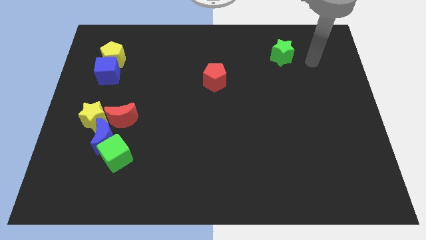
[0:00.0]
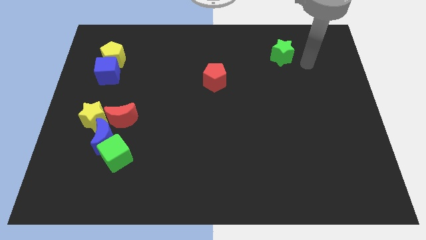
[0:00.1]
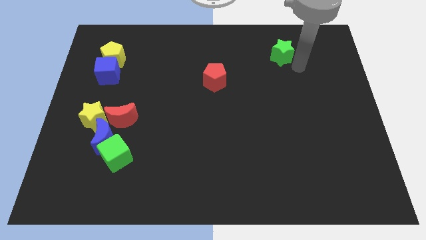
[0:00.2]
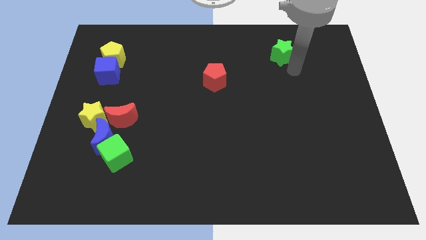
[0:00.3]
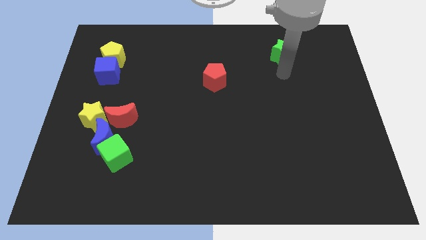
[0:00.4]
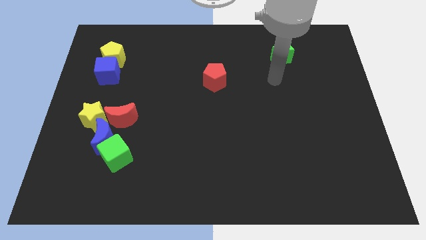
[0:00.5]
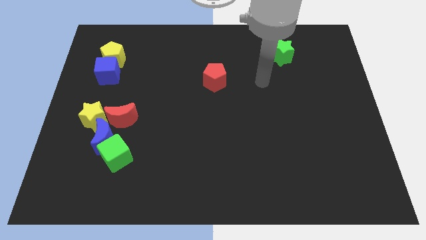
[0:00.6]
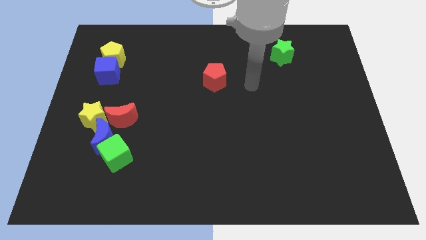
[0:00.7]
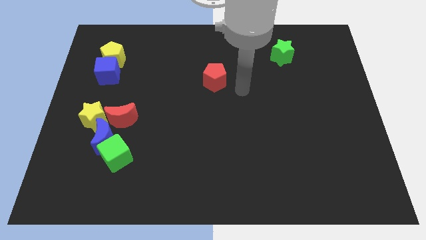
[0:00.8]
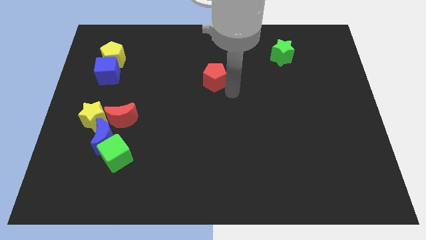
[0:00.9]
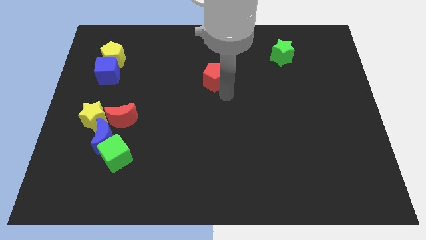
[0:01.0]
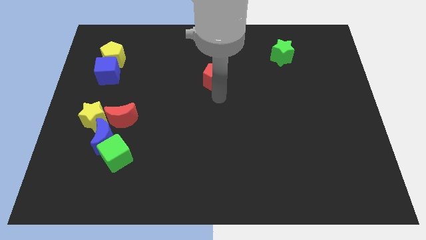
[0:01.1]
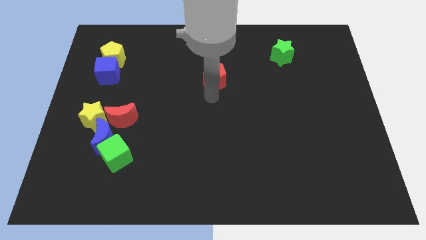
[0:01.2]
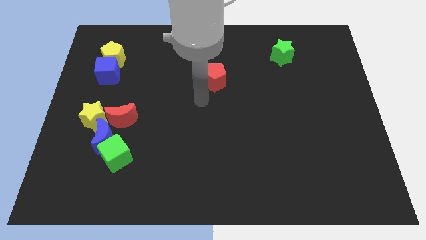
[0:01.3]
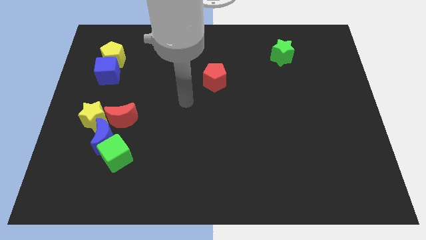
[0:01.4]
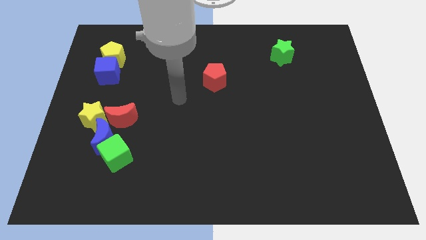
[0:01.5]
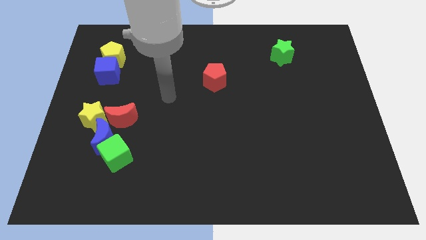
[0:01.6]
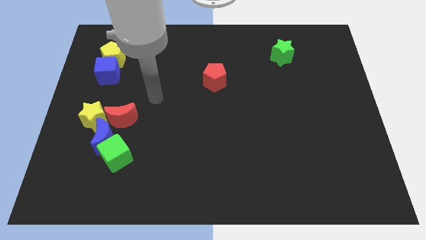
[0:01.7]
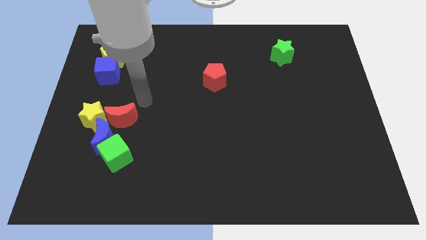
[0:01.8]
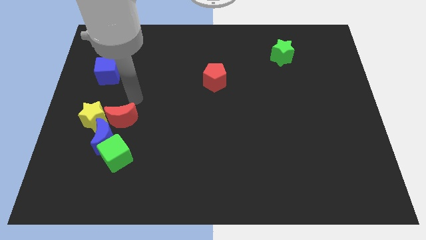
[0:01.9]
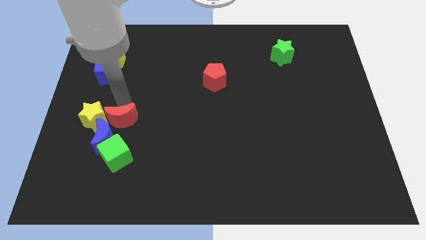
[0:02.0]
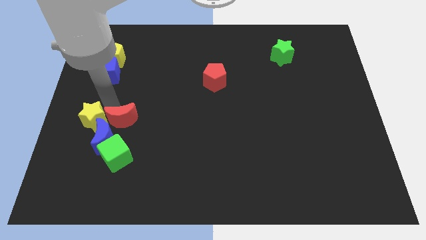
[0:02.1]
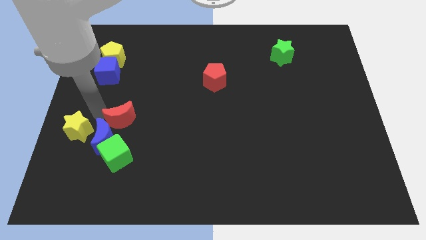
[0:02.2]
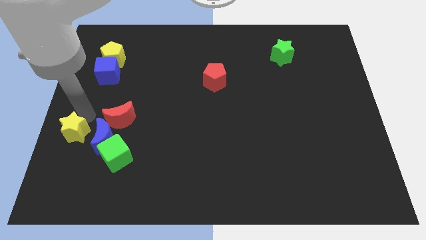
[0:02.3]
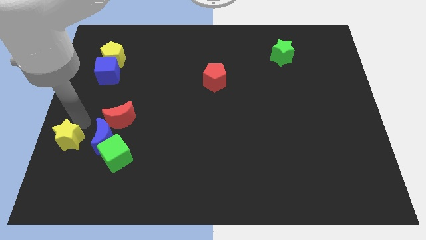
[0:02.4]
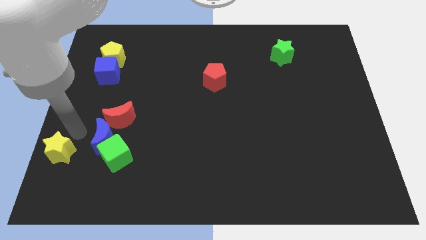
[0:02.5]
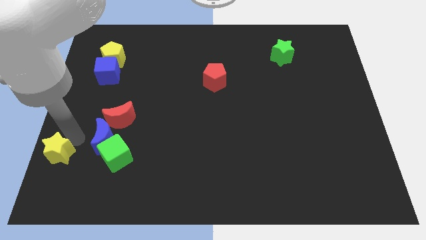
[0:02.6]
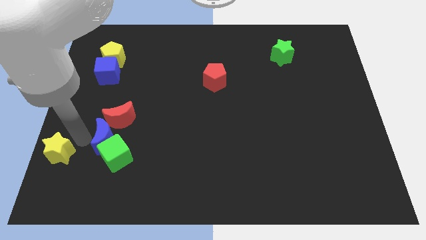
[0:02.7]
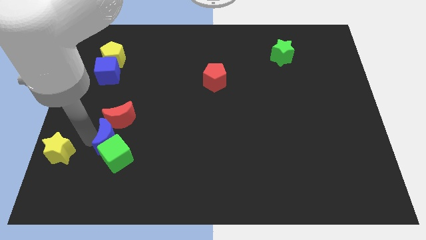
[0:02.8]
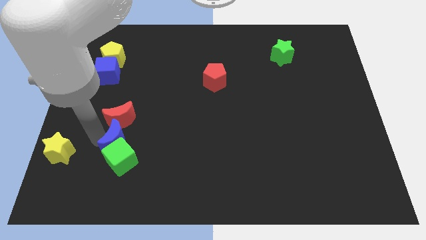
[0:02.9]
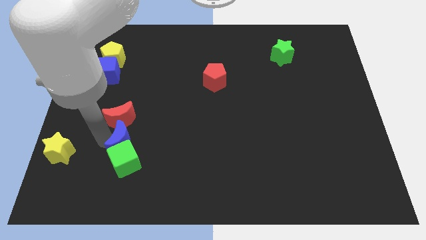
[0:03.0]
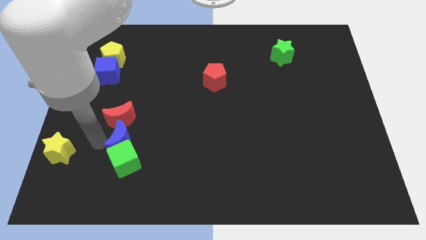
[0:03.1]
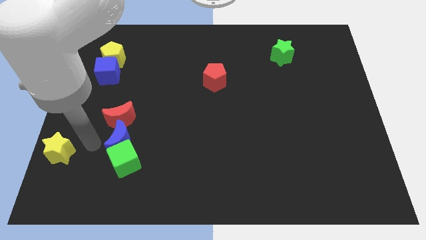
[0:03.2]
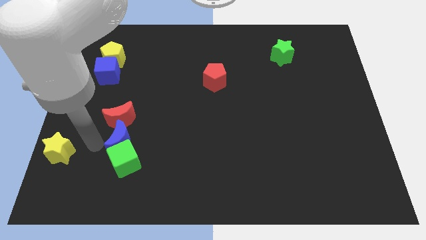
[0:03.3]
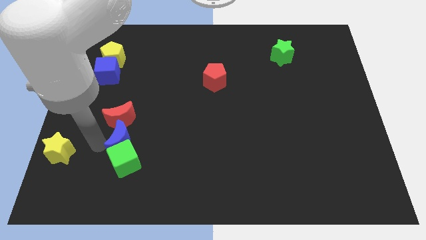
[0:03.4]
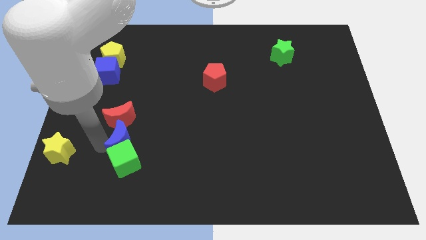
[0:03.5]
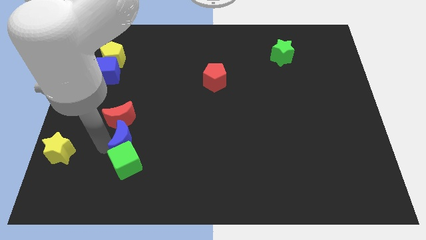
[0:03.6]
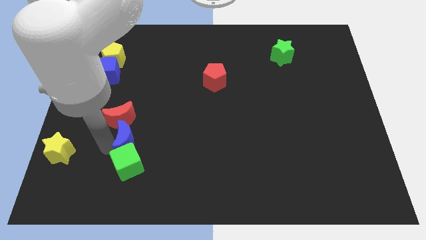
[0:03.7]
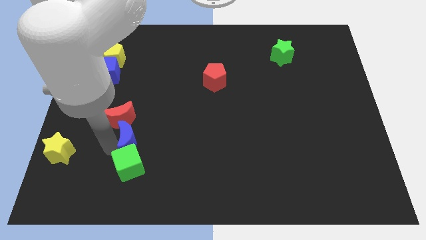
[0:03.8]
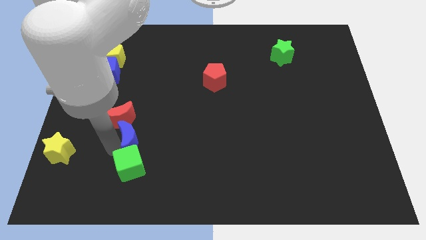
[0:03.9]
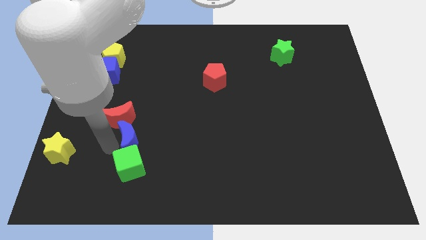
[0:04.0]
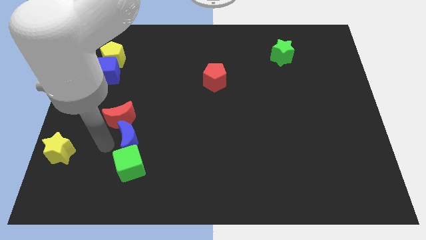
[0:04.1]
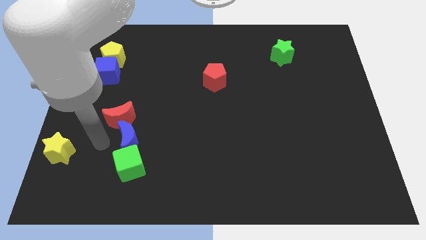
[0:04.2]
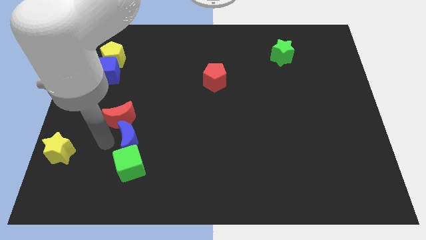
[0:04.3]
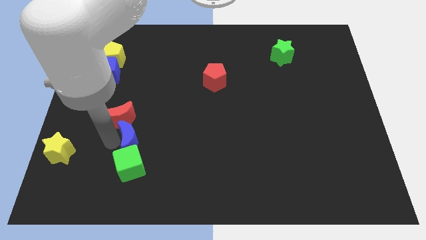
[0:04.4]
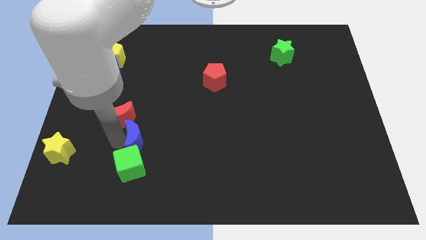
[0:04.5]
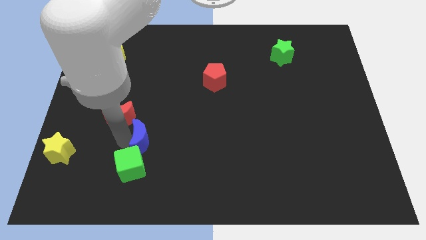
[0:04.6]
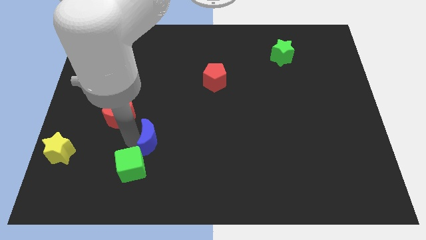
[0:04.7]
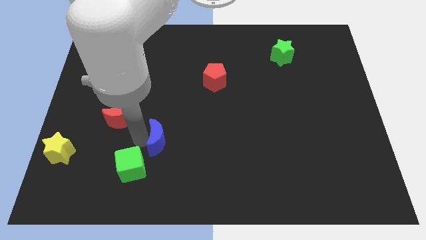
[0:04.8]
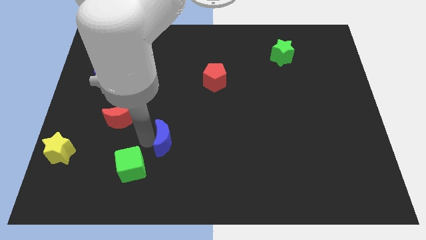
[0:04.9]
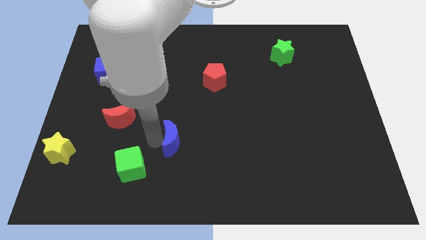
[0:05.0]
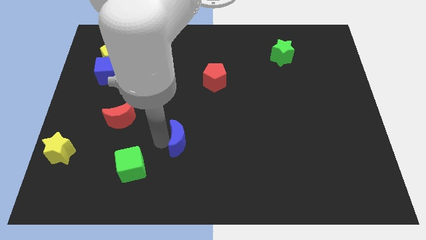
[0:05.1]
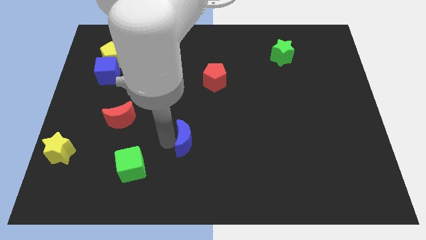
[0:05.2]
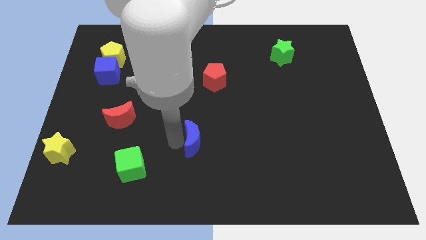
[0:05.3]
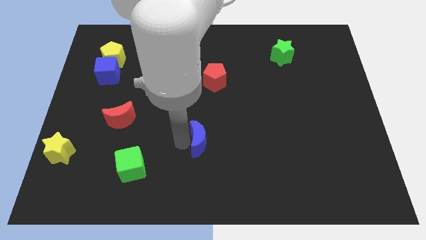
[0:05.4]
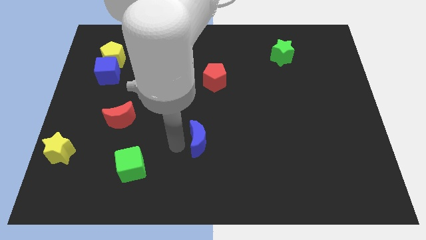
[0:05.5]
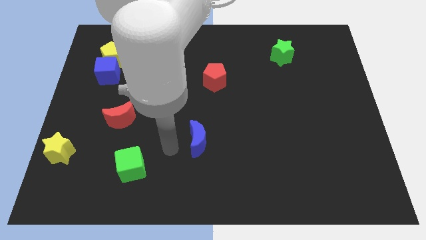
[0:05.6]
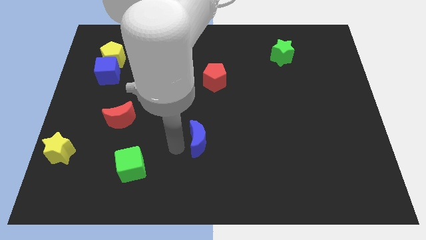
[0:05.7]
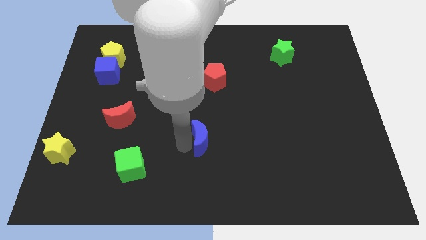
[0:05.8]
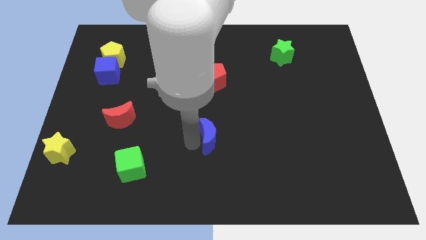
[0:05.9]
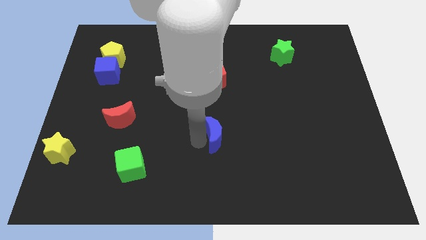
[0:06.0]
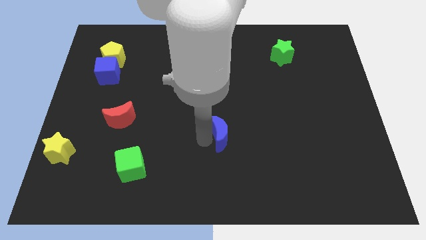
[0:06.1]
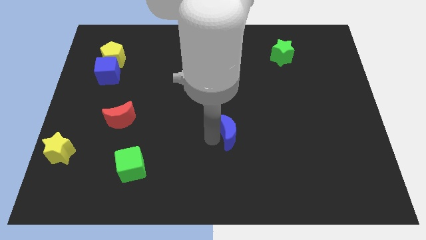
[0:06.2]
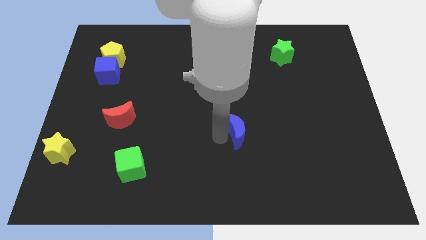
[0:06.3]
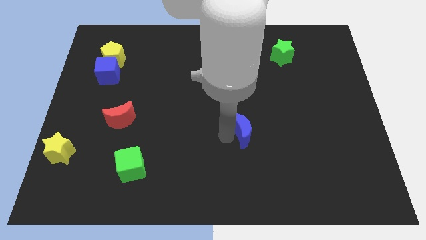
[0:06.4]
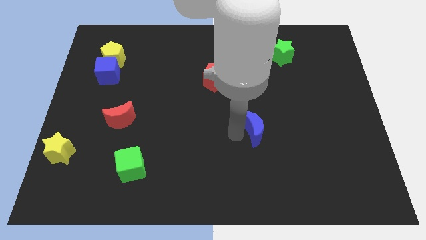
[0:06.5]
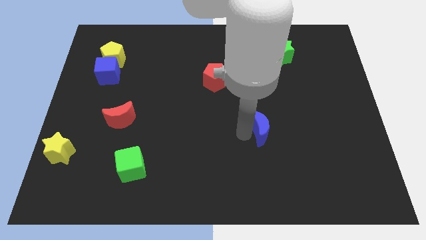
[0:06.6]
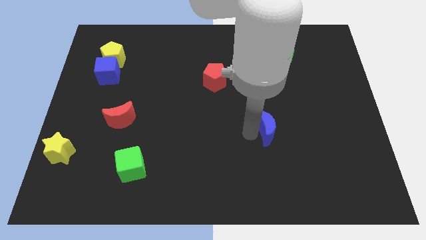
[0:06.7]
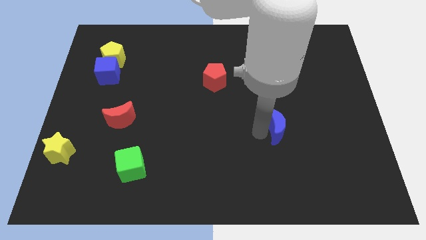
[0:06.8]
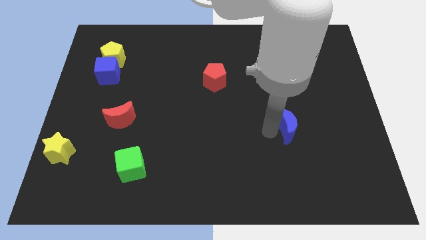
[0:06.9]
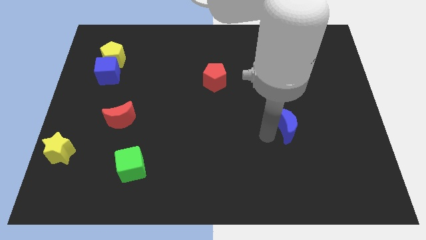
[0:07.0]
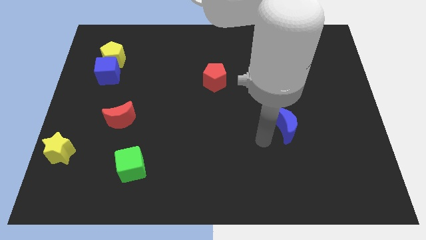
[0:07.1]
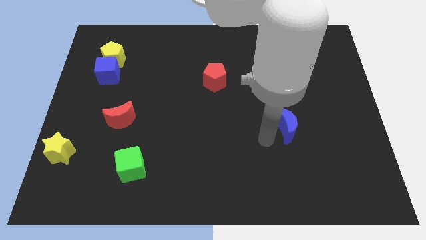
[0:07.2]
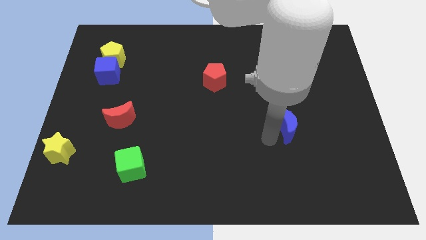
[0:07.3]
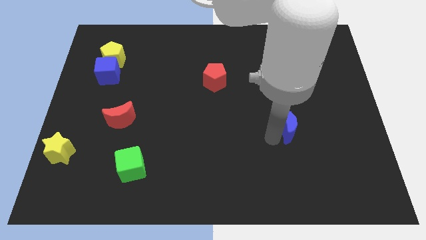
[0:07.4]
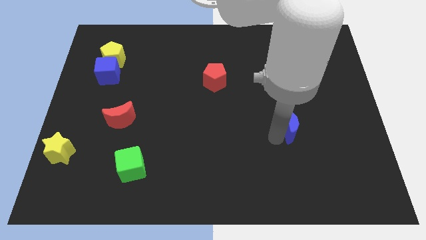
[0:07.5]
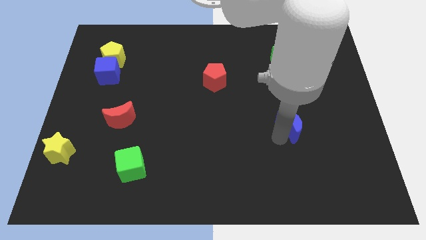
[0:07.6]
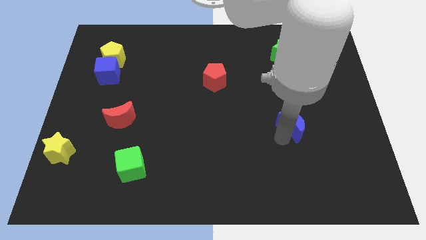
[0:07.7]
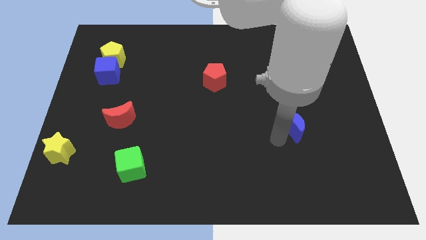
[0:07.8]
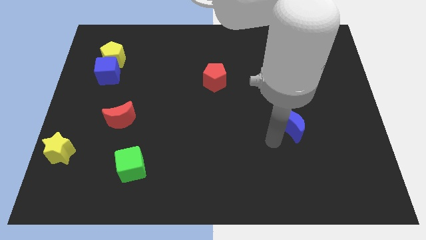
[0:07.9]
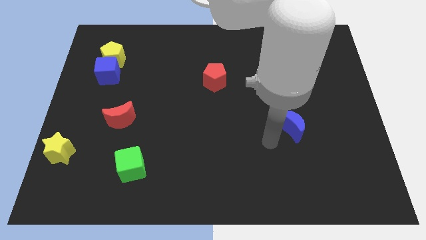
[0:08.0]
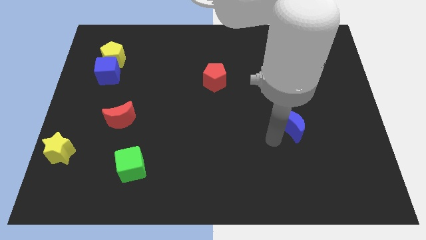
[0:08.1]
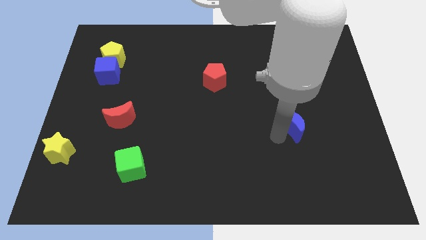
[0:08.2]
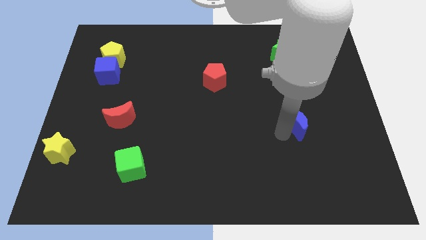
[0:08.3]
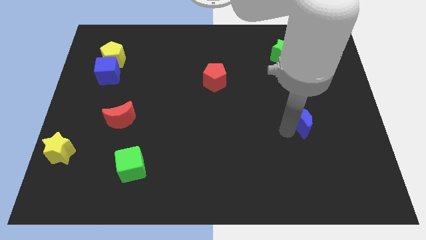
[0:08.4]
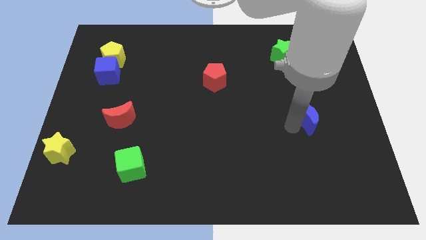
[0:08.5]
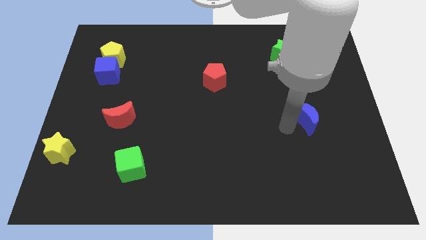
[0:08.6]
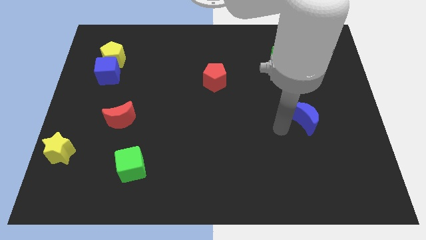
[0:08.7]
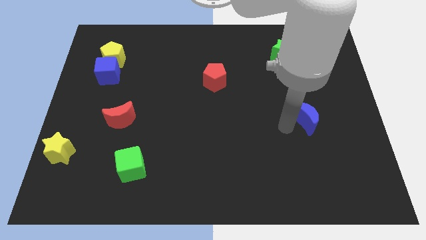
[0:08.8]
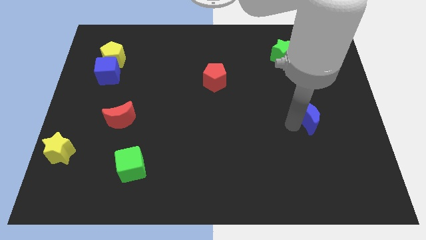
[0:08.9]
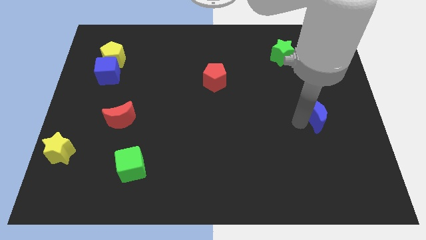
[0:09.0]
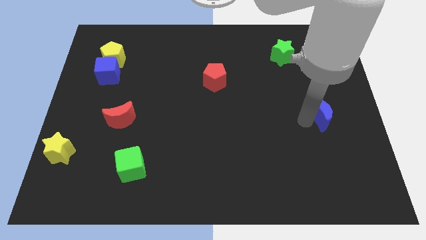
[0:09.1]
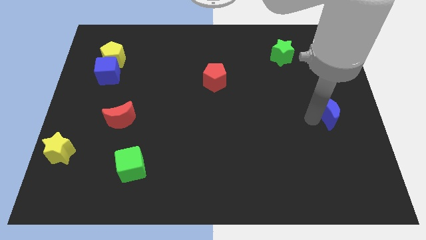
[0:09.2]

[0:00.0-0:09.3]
slide the blue moon to the center right
